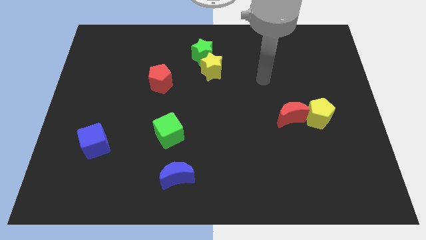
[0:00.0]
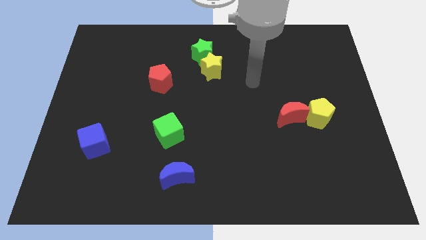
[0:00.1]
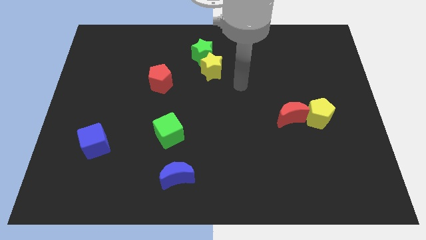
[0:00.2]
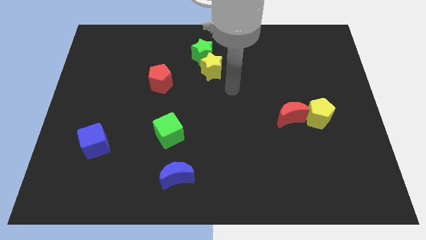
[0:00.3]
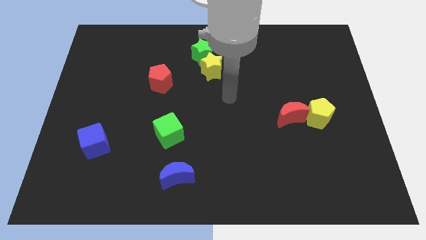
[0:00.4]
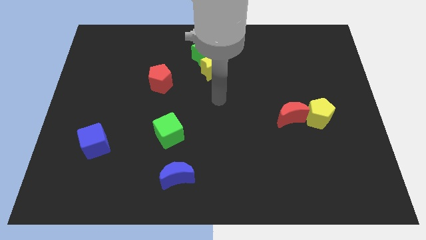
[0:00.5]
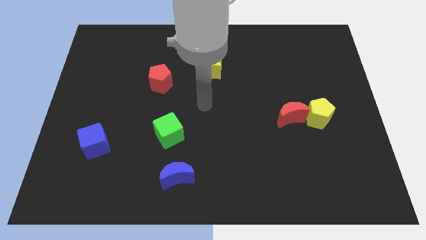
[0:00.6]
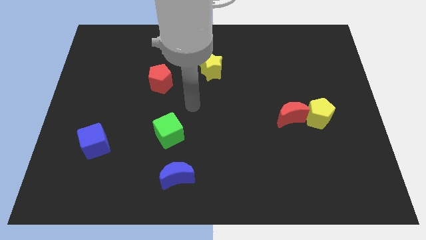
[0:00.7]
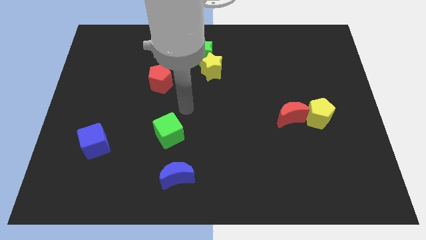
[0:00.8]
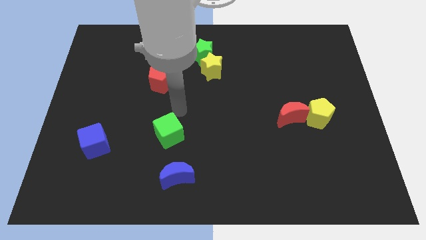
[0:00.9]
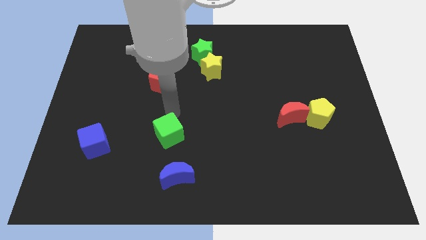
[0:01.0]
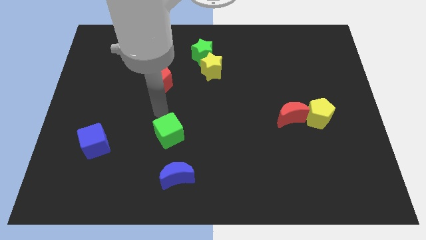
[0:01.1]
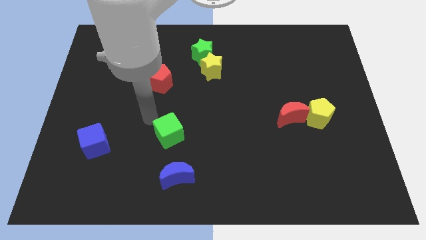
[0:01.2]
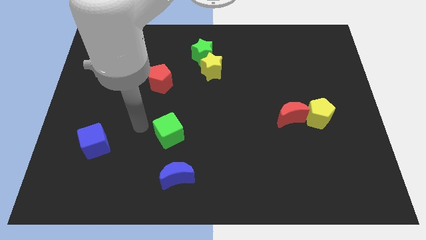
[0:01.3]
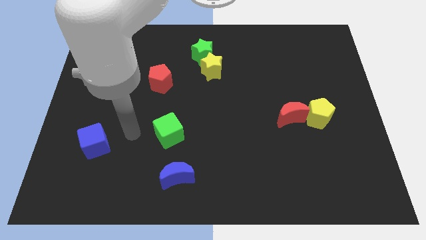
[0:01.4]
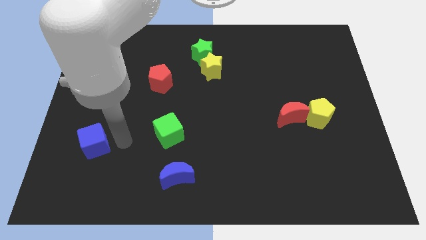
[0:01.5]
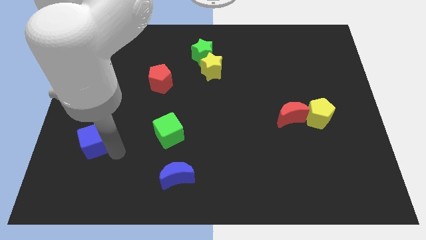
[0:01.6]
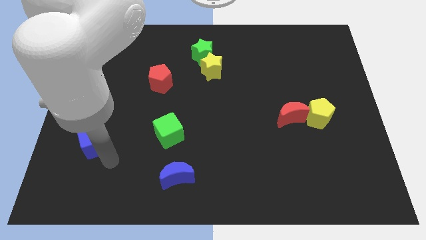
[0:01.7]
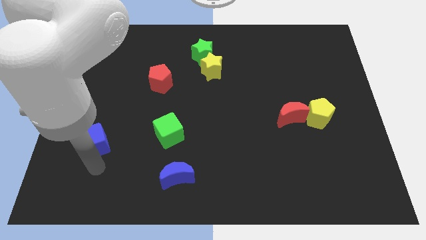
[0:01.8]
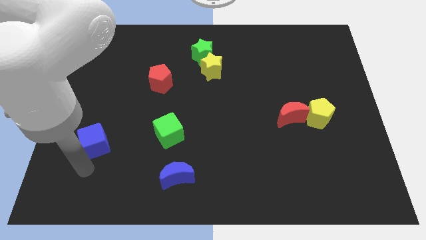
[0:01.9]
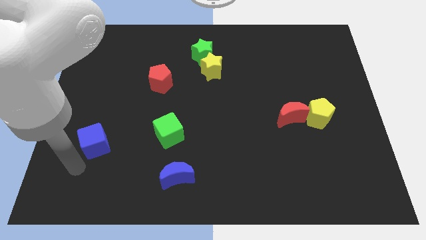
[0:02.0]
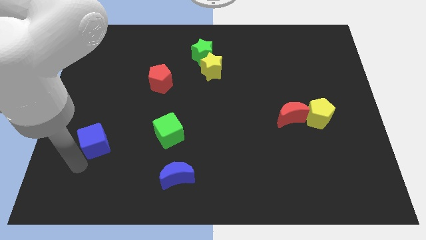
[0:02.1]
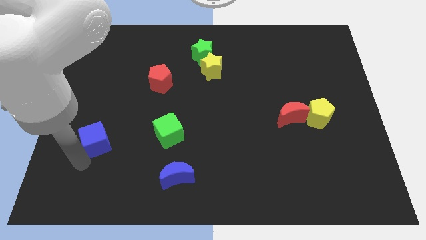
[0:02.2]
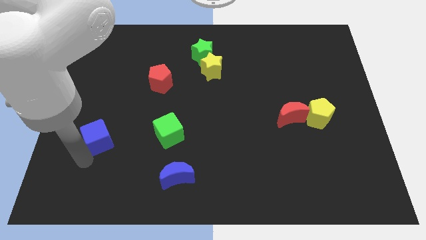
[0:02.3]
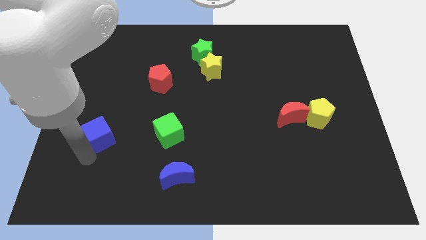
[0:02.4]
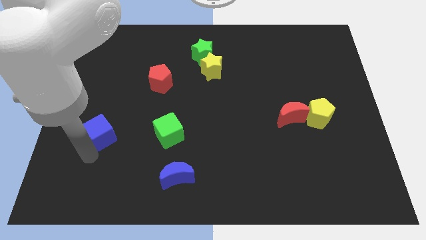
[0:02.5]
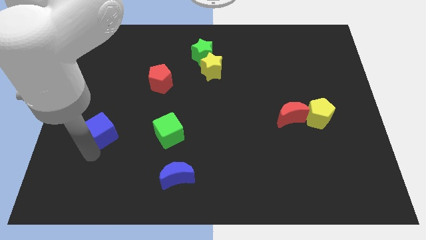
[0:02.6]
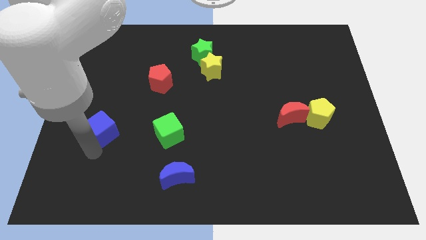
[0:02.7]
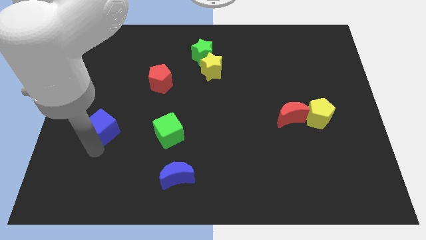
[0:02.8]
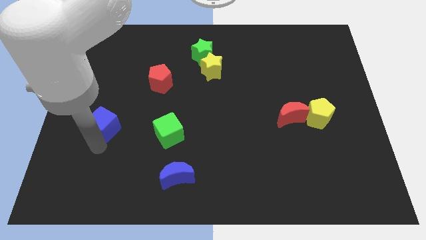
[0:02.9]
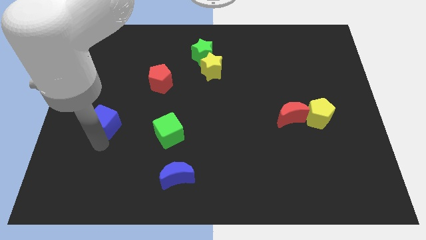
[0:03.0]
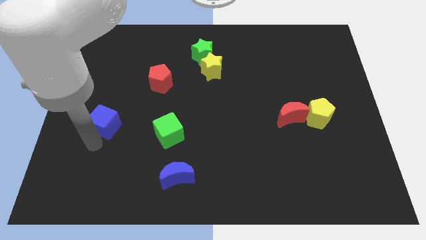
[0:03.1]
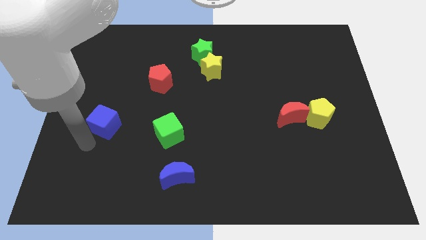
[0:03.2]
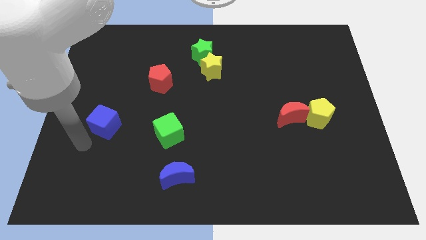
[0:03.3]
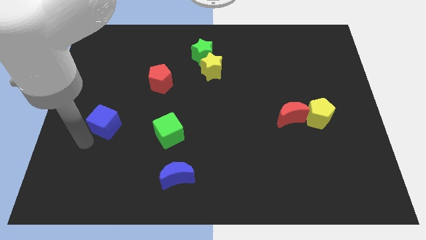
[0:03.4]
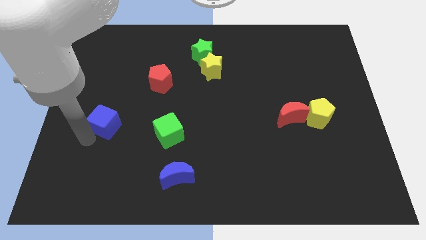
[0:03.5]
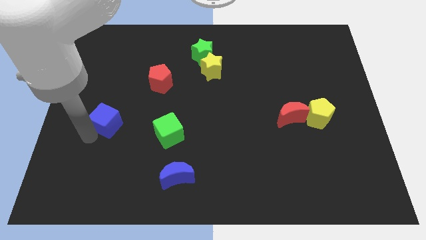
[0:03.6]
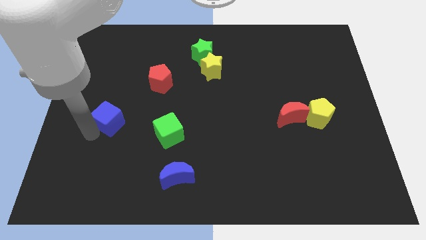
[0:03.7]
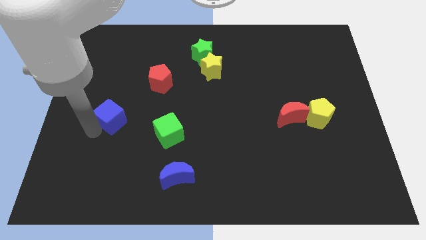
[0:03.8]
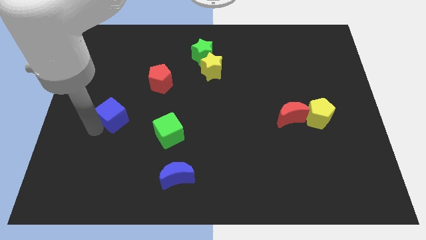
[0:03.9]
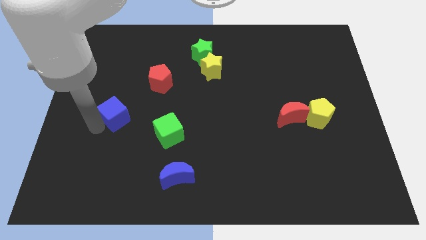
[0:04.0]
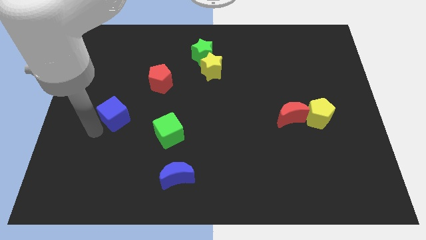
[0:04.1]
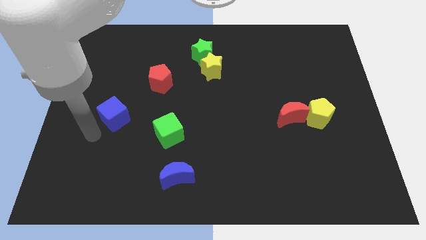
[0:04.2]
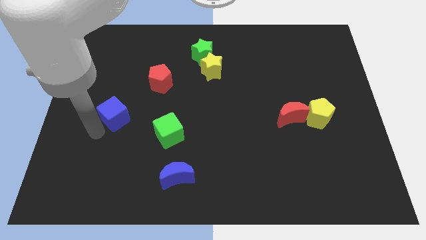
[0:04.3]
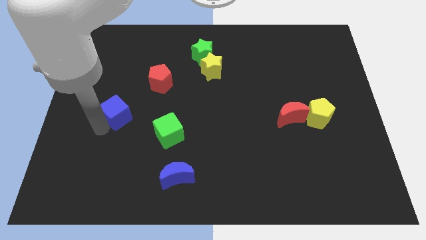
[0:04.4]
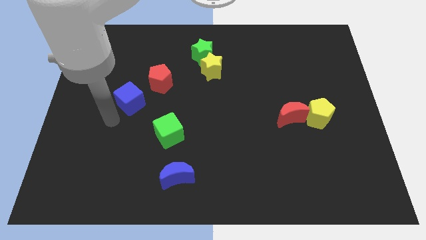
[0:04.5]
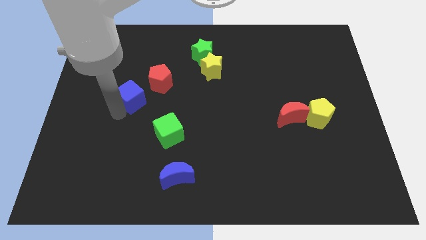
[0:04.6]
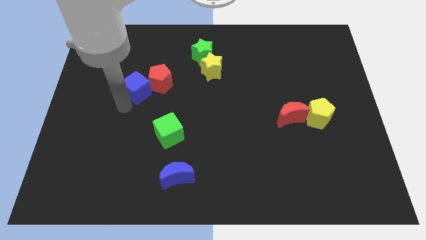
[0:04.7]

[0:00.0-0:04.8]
slide the blue cube close to the red pentagon

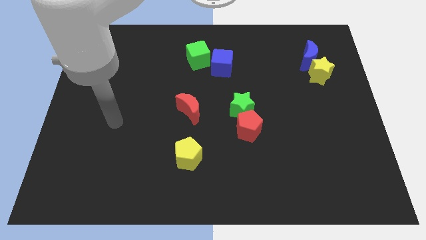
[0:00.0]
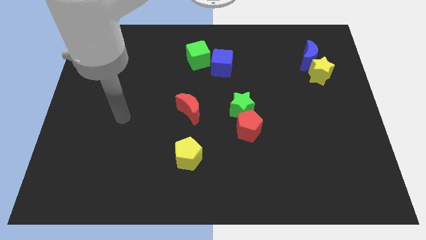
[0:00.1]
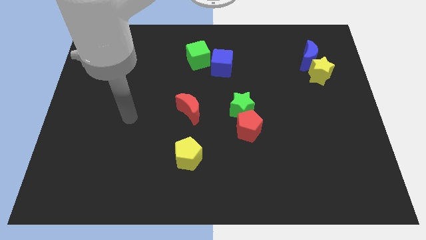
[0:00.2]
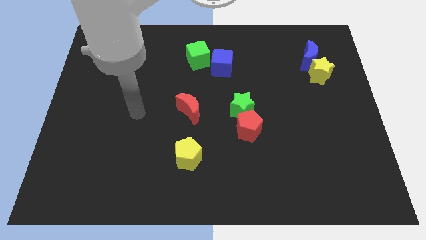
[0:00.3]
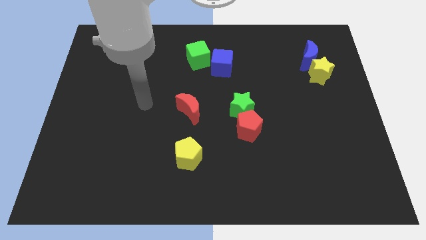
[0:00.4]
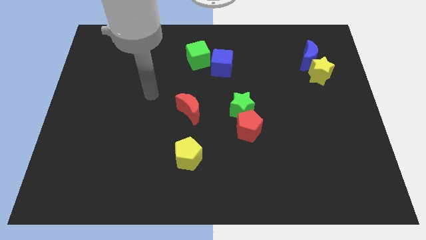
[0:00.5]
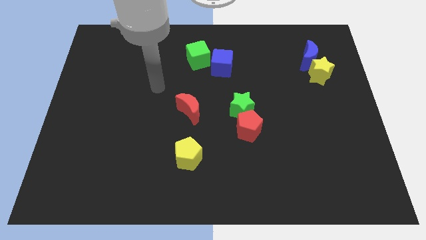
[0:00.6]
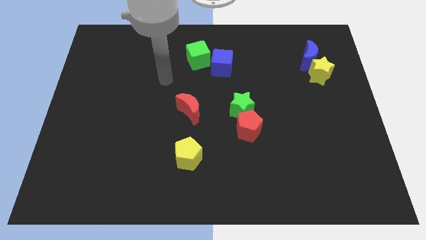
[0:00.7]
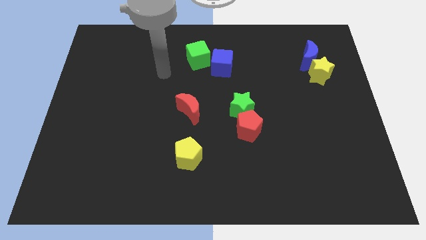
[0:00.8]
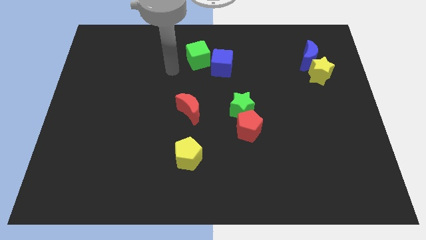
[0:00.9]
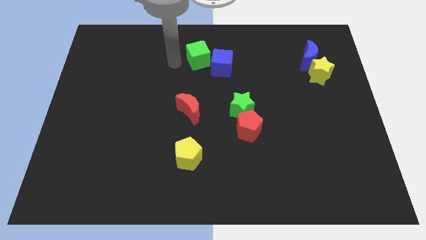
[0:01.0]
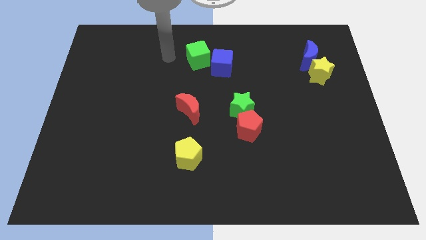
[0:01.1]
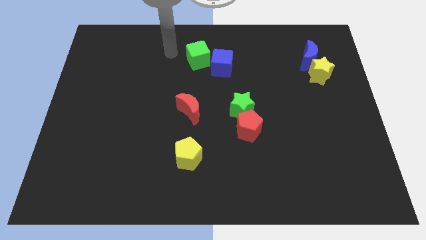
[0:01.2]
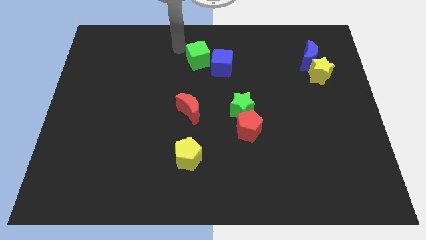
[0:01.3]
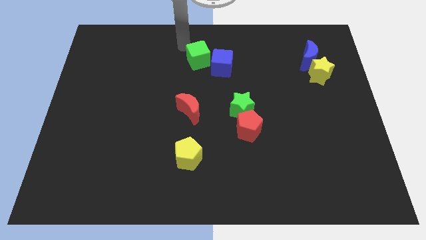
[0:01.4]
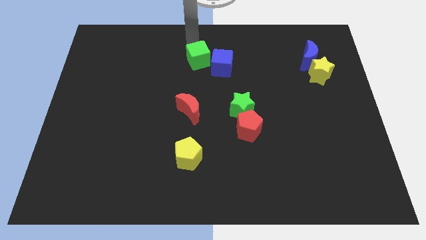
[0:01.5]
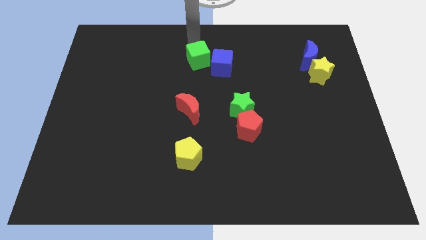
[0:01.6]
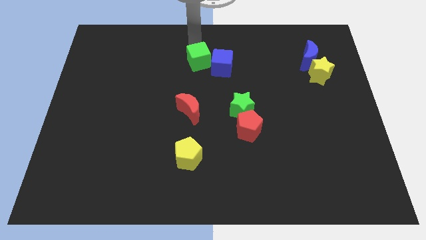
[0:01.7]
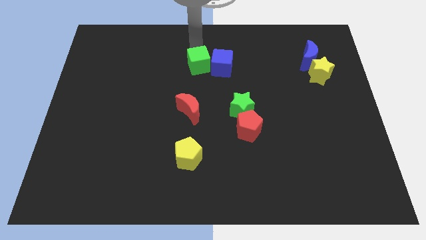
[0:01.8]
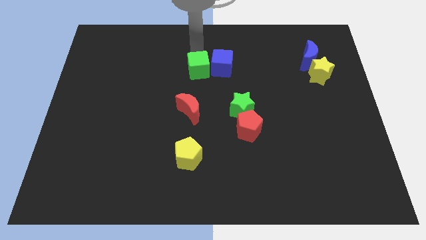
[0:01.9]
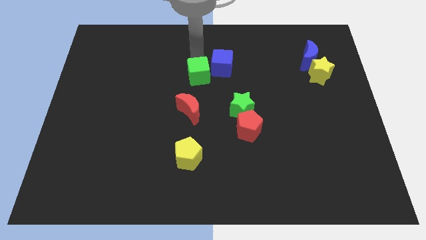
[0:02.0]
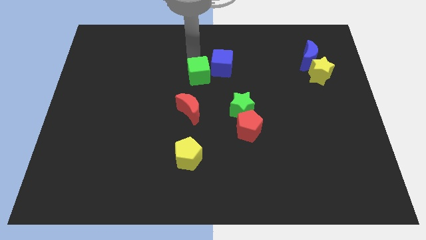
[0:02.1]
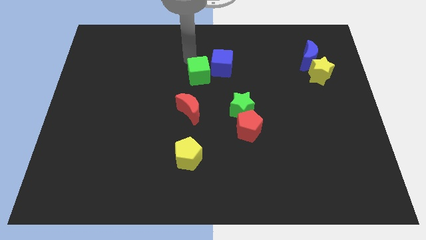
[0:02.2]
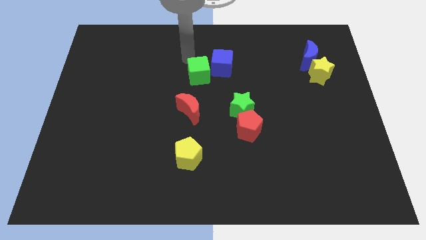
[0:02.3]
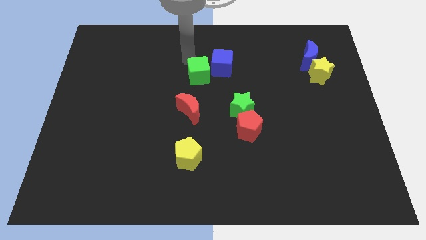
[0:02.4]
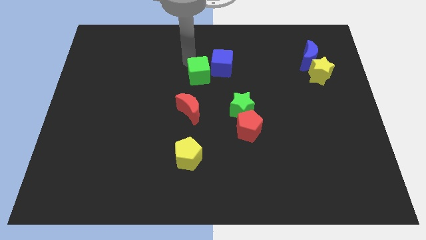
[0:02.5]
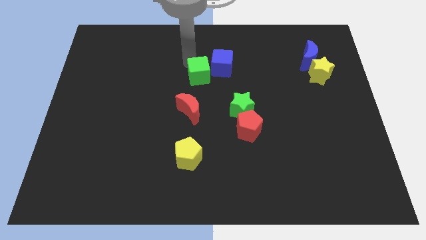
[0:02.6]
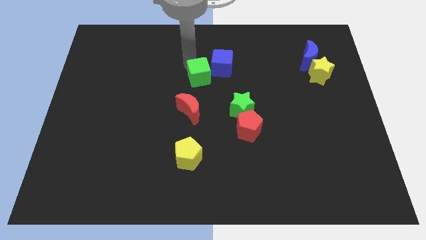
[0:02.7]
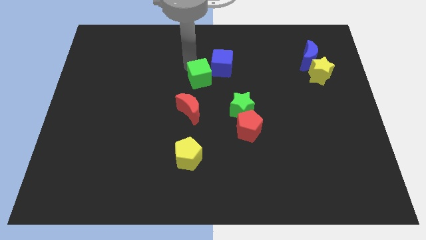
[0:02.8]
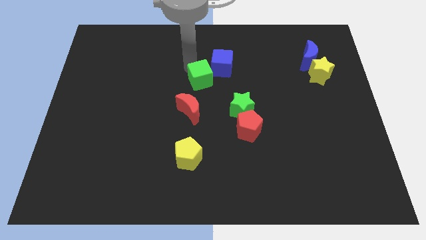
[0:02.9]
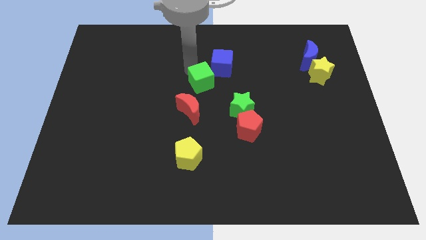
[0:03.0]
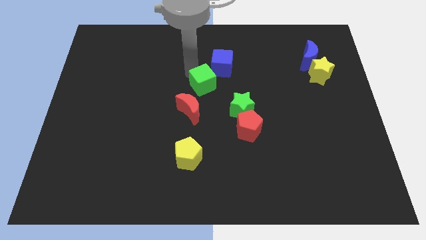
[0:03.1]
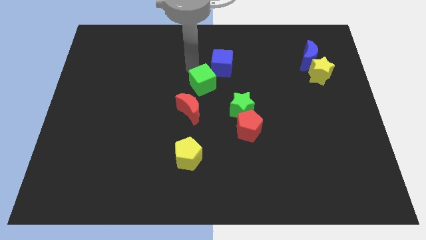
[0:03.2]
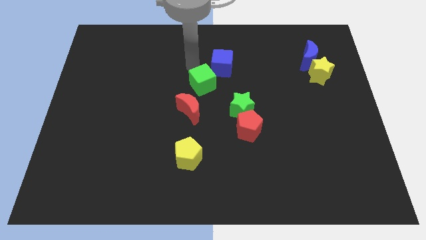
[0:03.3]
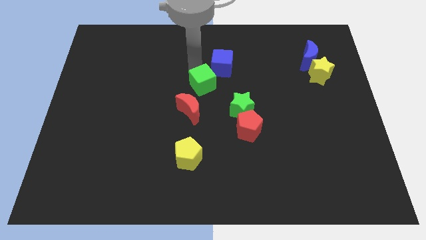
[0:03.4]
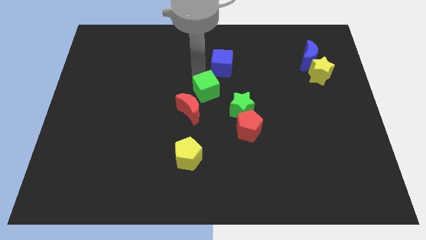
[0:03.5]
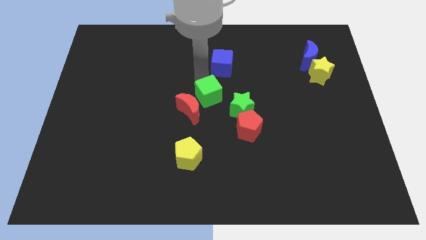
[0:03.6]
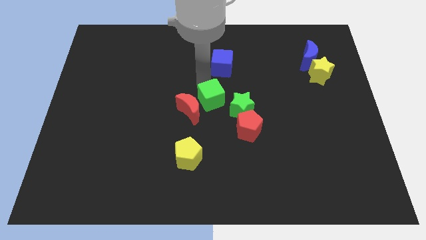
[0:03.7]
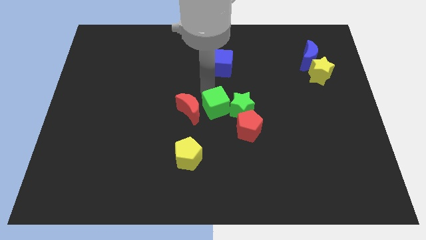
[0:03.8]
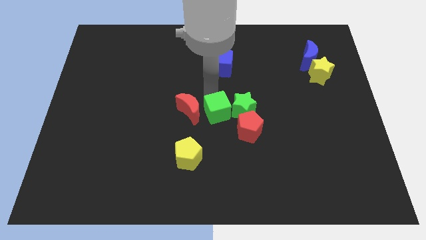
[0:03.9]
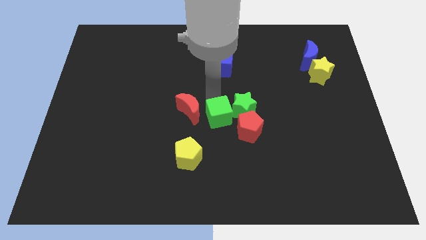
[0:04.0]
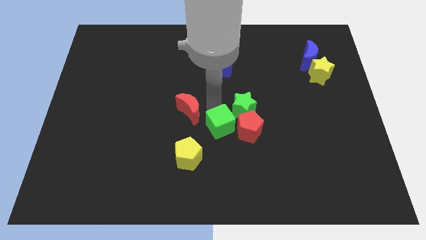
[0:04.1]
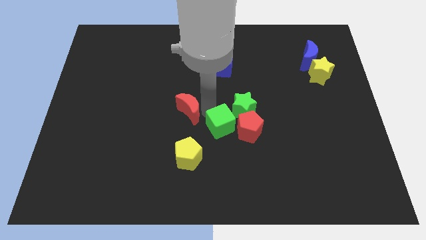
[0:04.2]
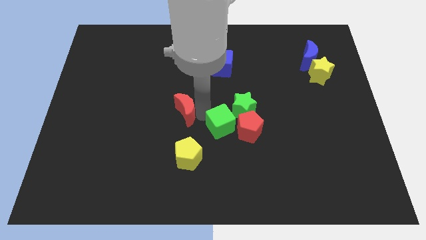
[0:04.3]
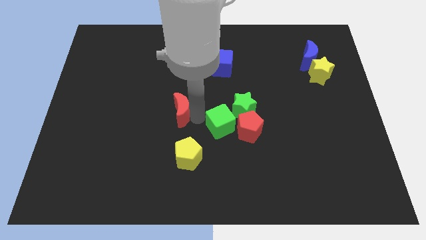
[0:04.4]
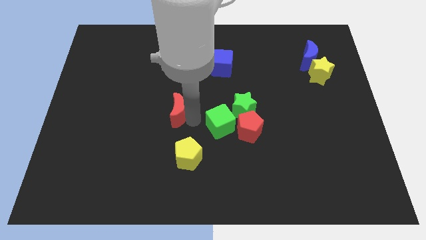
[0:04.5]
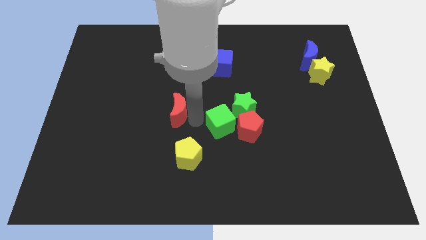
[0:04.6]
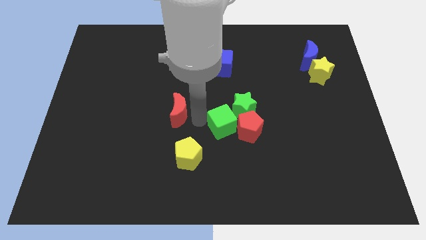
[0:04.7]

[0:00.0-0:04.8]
put the green cube towards the red pentagon
